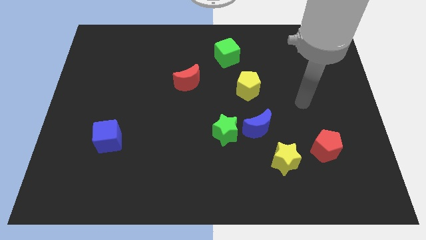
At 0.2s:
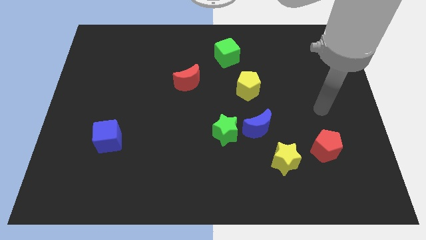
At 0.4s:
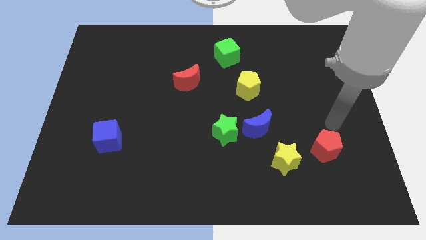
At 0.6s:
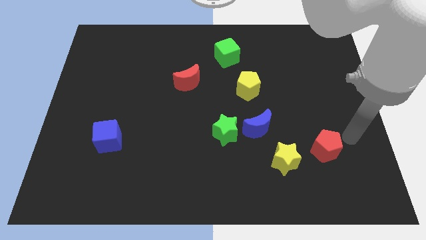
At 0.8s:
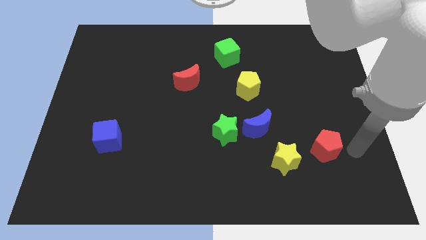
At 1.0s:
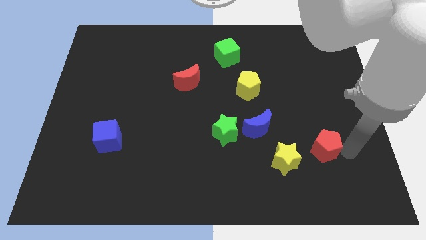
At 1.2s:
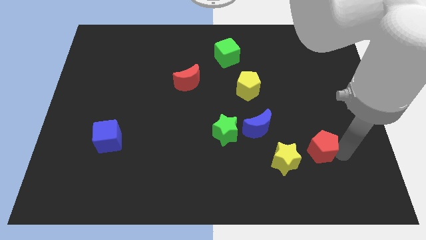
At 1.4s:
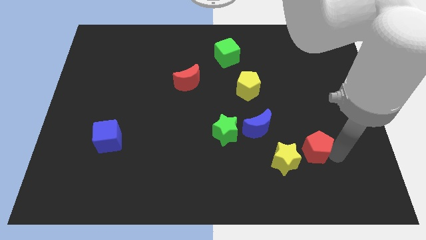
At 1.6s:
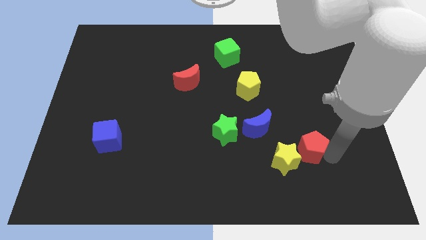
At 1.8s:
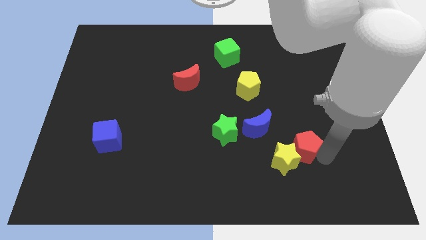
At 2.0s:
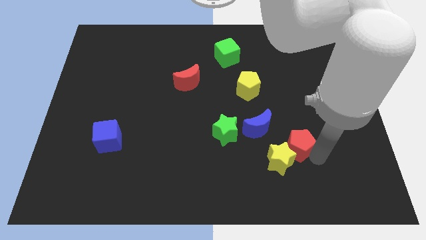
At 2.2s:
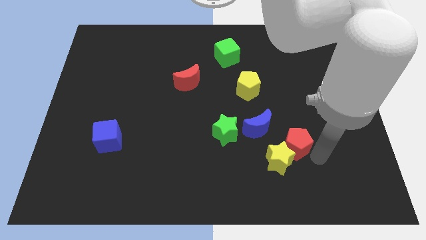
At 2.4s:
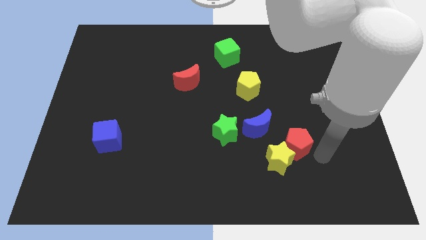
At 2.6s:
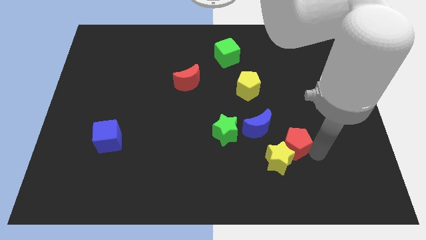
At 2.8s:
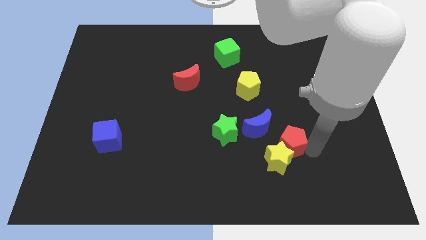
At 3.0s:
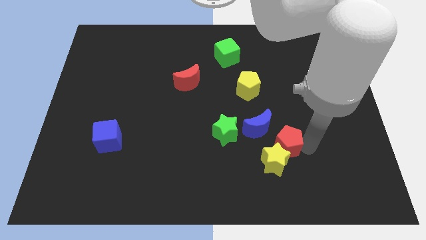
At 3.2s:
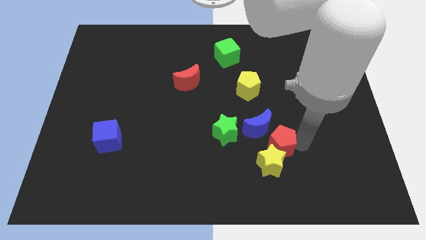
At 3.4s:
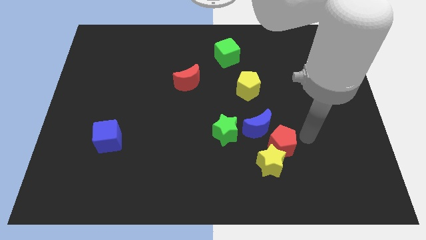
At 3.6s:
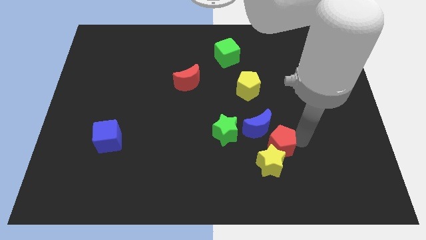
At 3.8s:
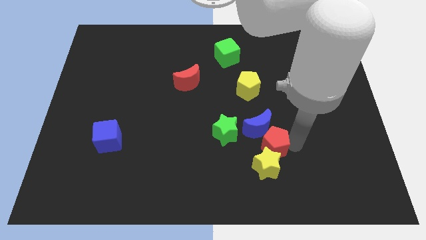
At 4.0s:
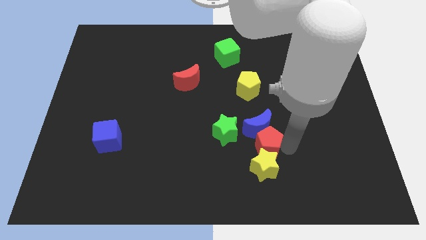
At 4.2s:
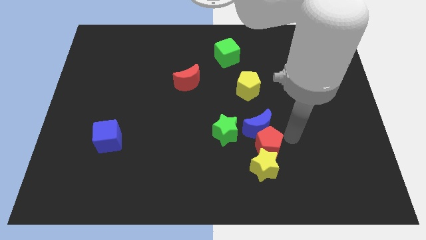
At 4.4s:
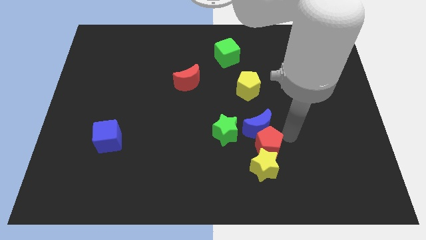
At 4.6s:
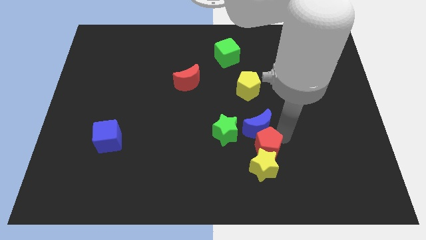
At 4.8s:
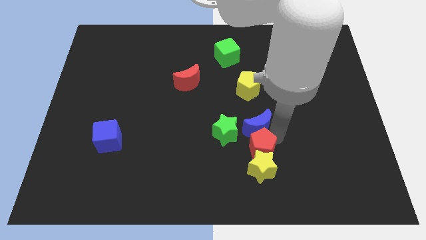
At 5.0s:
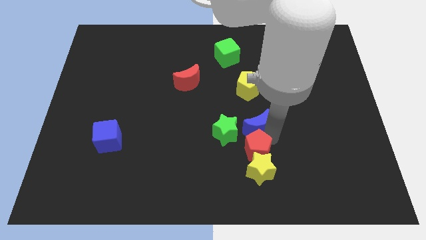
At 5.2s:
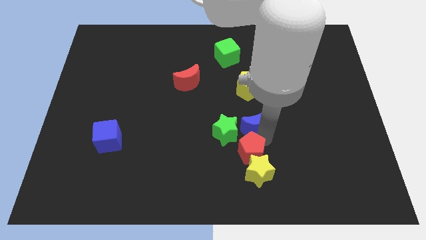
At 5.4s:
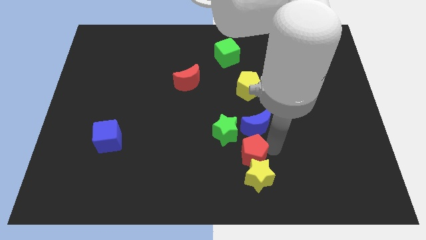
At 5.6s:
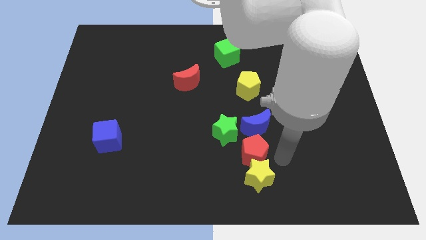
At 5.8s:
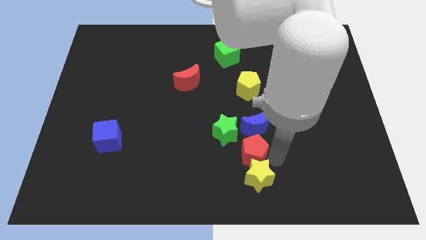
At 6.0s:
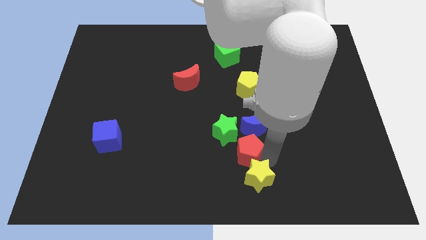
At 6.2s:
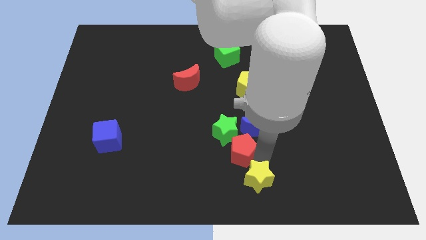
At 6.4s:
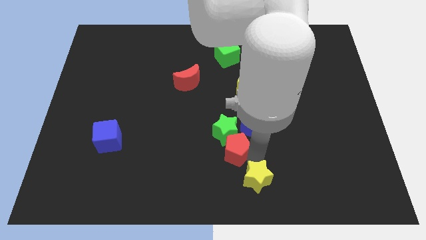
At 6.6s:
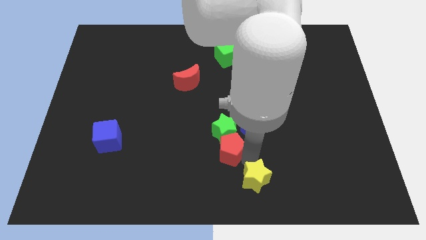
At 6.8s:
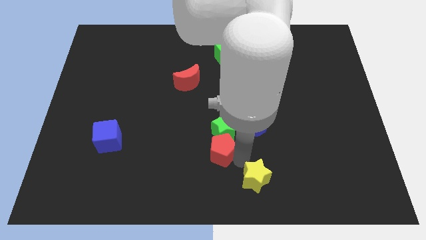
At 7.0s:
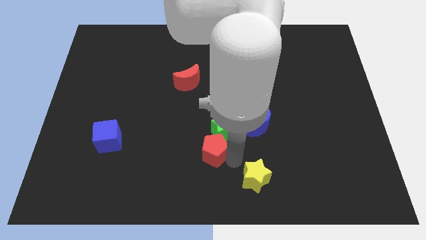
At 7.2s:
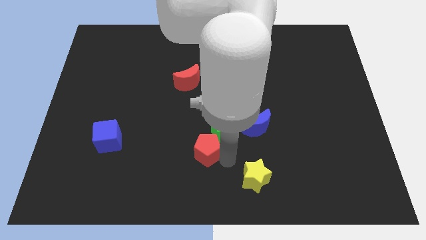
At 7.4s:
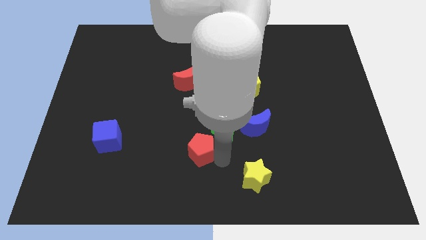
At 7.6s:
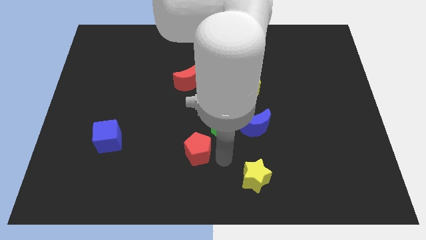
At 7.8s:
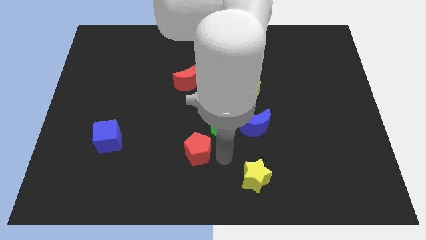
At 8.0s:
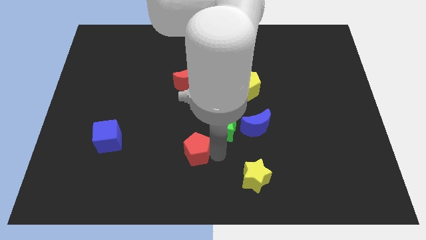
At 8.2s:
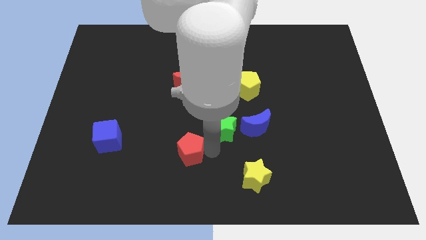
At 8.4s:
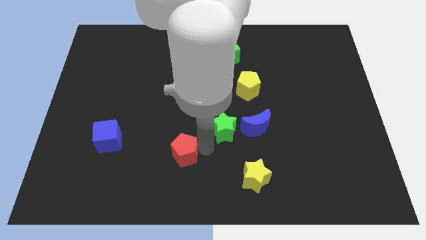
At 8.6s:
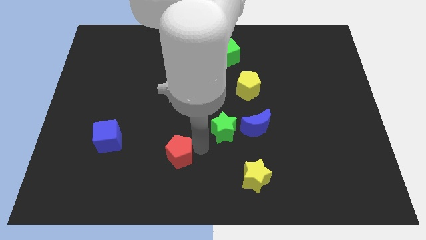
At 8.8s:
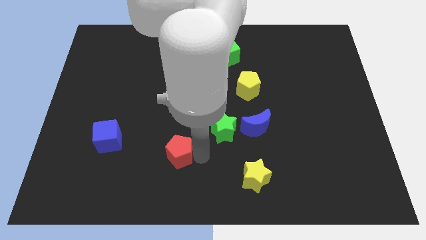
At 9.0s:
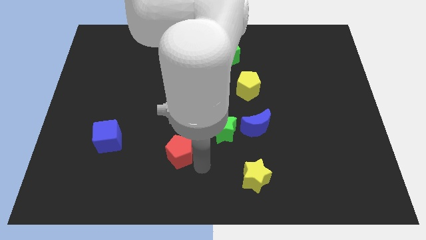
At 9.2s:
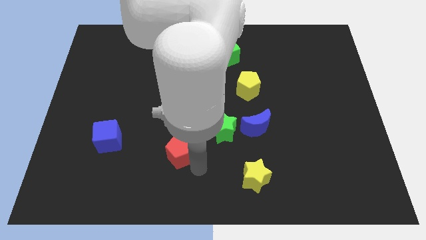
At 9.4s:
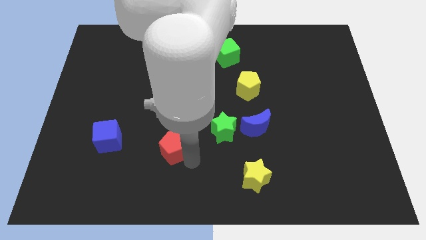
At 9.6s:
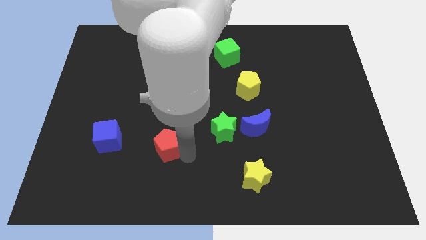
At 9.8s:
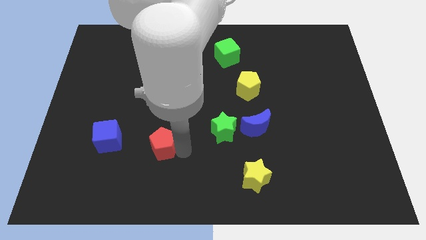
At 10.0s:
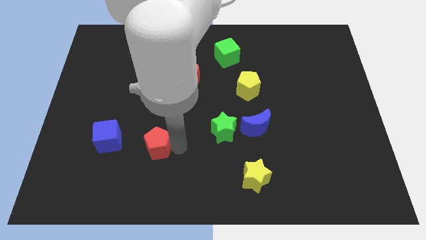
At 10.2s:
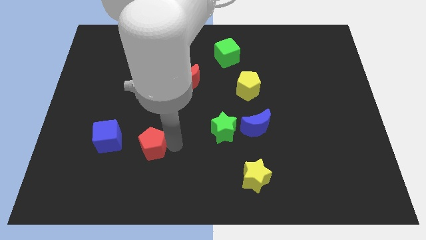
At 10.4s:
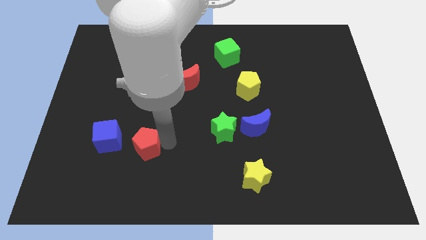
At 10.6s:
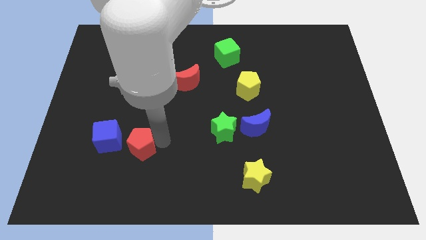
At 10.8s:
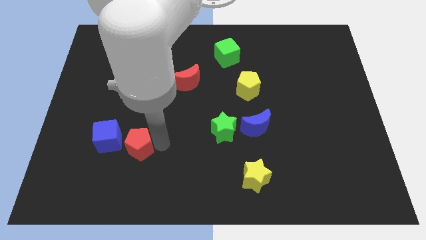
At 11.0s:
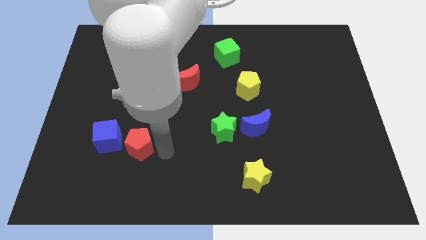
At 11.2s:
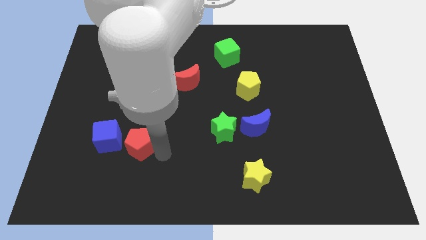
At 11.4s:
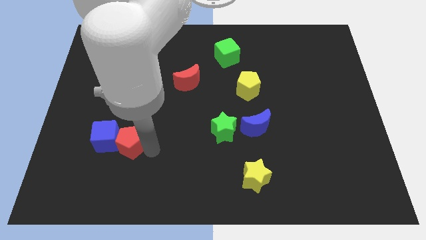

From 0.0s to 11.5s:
put the red pentagon next to the blue cube

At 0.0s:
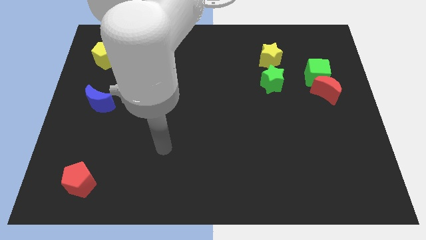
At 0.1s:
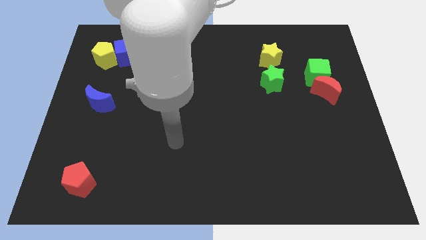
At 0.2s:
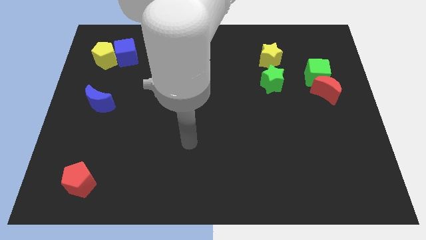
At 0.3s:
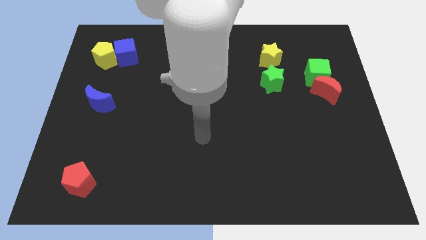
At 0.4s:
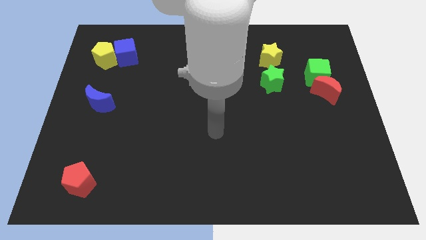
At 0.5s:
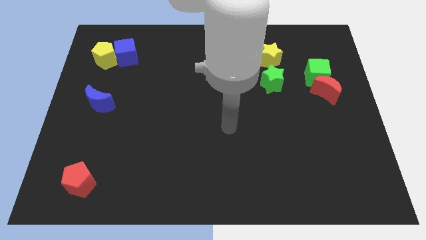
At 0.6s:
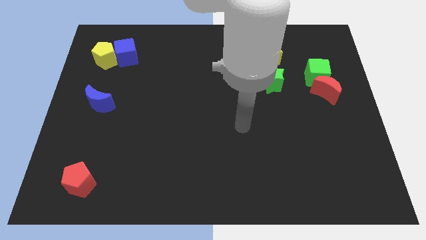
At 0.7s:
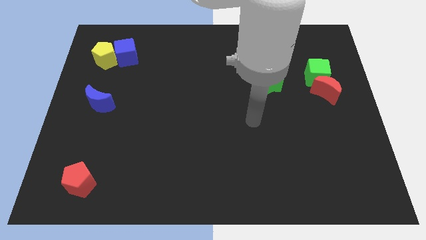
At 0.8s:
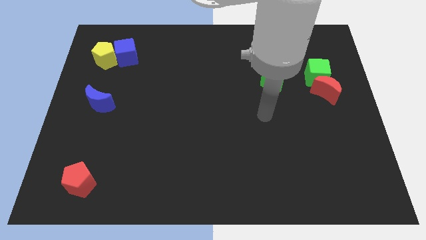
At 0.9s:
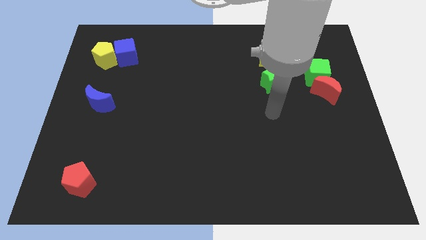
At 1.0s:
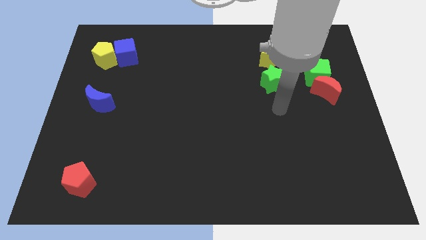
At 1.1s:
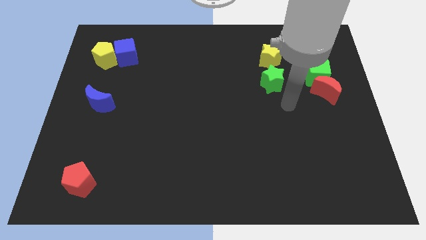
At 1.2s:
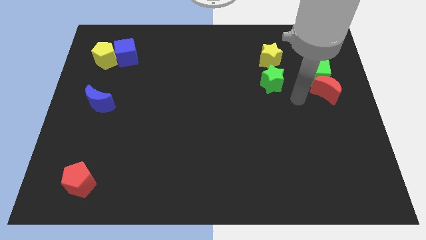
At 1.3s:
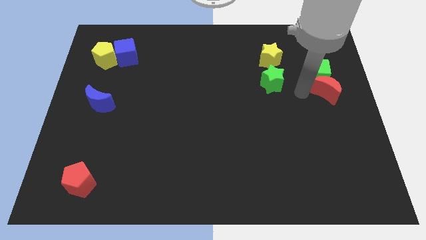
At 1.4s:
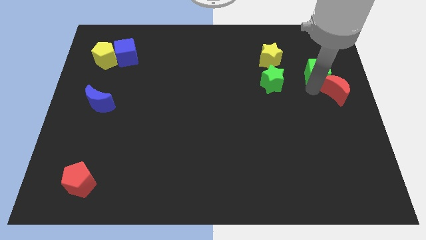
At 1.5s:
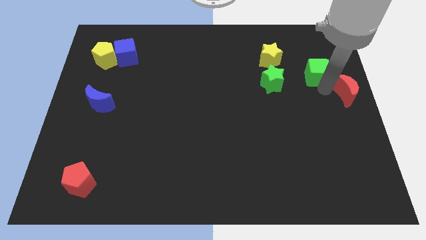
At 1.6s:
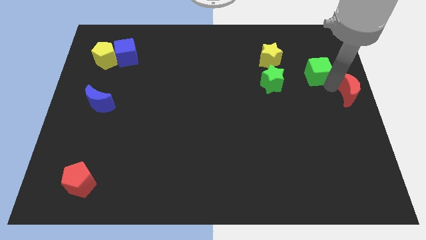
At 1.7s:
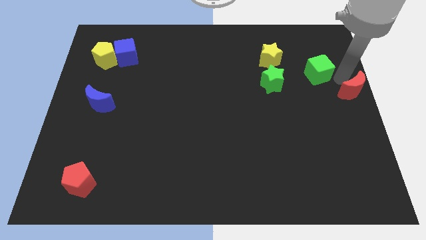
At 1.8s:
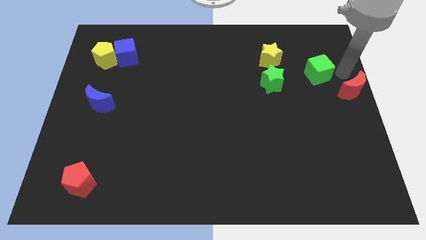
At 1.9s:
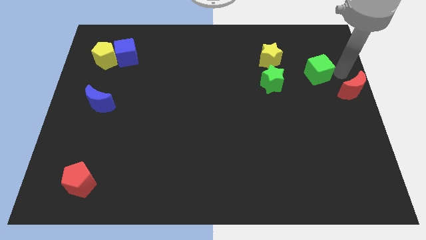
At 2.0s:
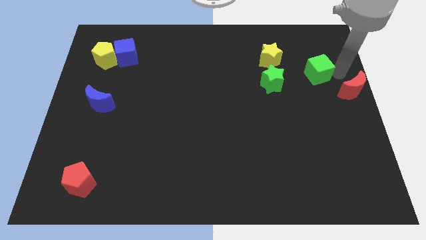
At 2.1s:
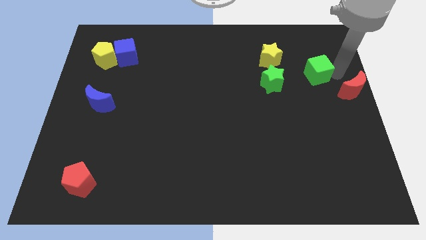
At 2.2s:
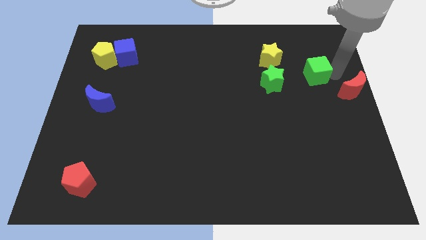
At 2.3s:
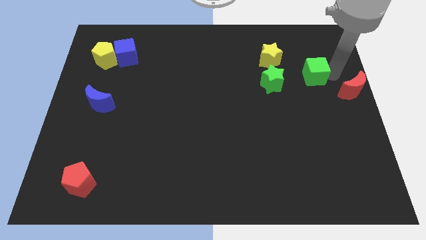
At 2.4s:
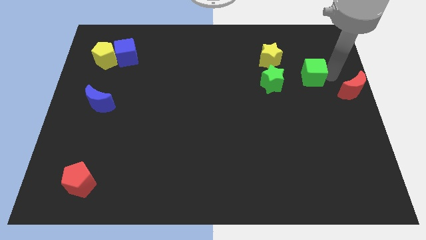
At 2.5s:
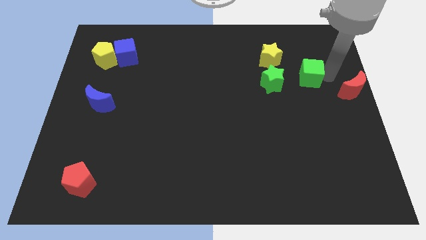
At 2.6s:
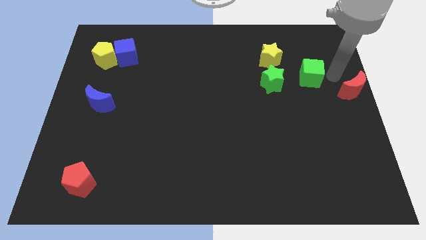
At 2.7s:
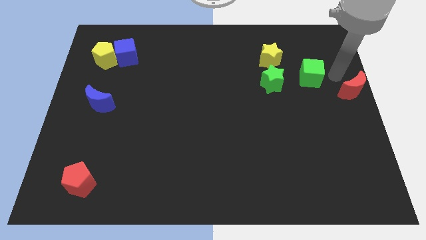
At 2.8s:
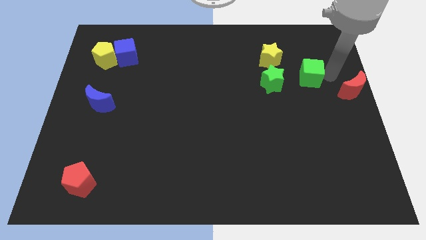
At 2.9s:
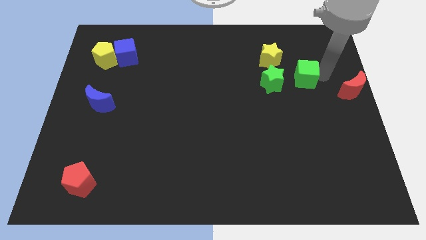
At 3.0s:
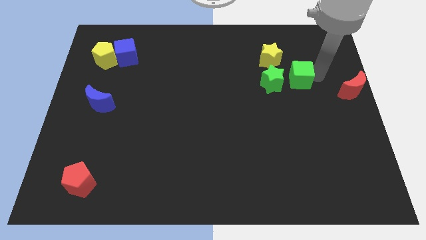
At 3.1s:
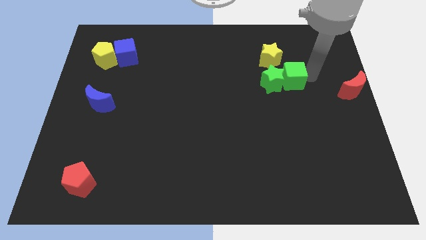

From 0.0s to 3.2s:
push the green cube to the green star
